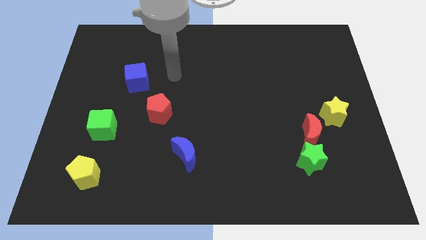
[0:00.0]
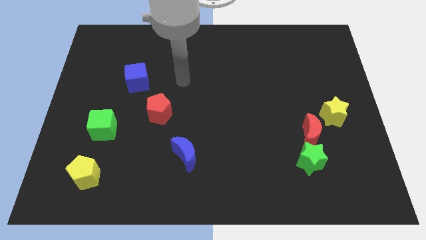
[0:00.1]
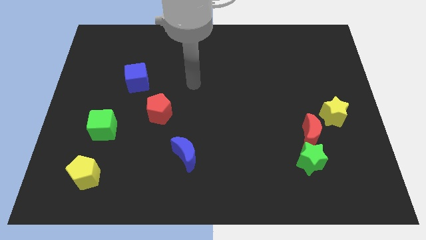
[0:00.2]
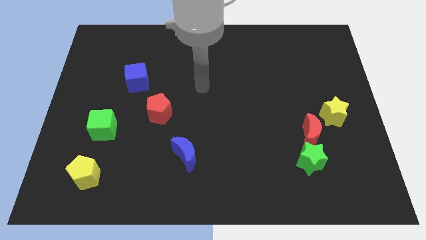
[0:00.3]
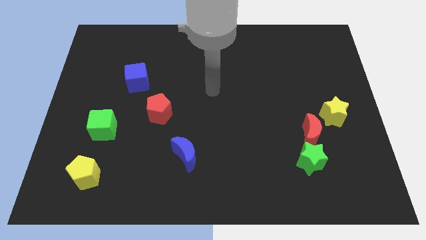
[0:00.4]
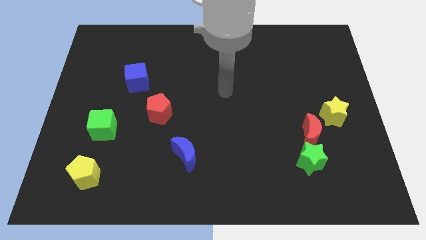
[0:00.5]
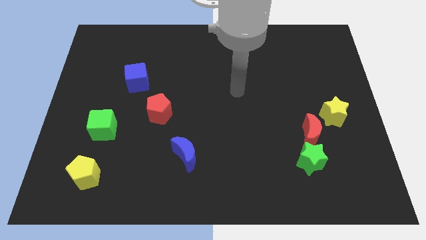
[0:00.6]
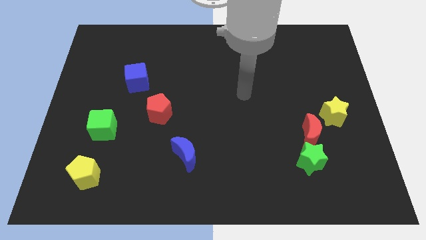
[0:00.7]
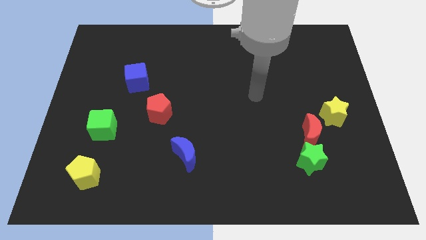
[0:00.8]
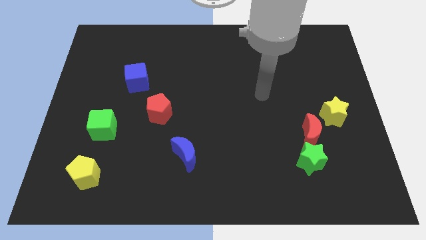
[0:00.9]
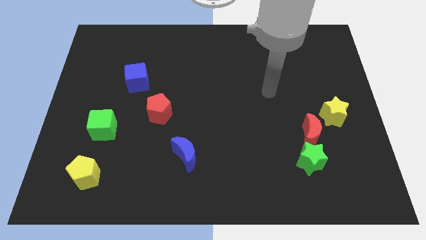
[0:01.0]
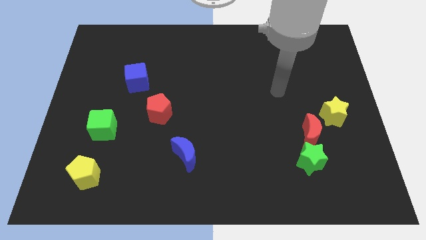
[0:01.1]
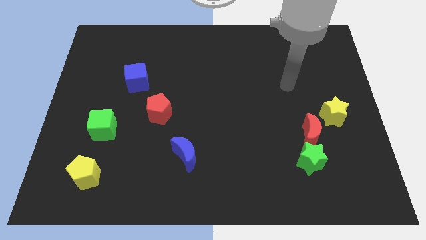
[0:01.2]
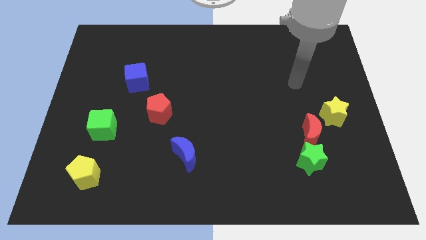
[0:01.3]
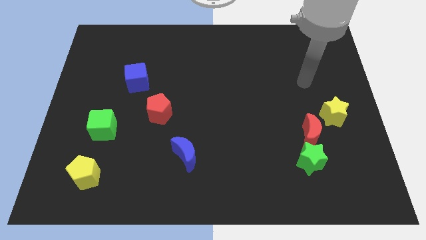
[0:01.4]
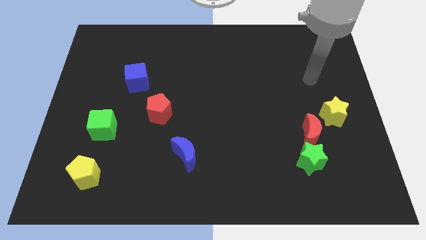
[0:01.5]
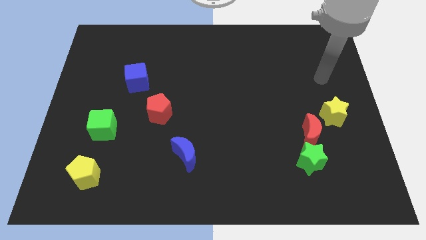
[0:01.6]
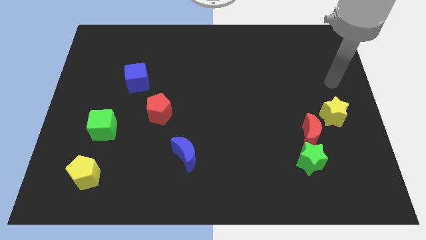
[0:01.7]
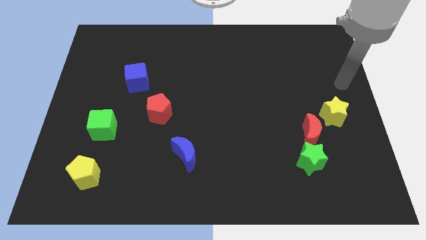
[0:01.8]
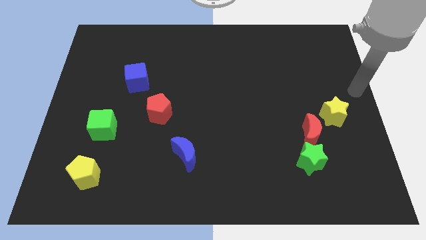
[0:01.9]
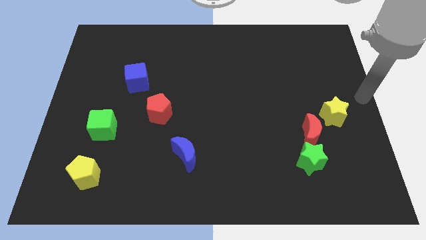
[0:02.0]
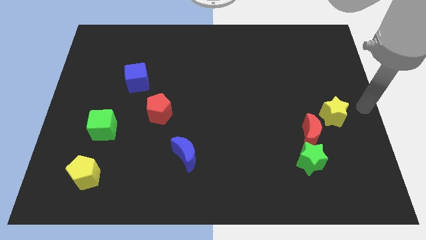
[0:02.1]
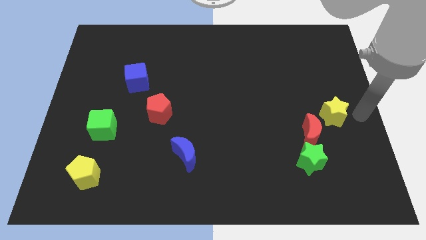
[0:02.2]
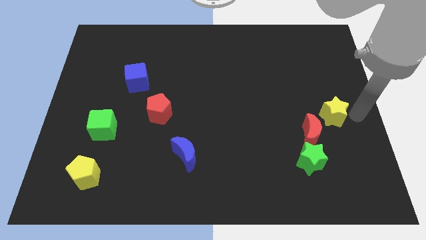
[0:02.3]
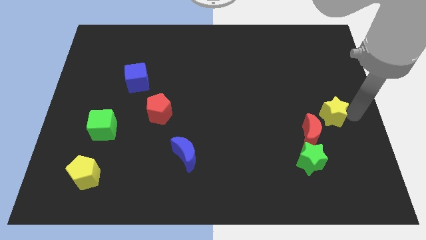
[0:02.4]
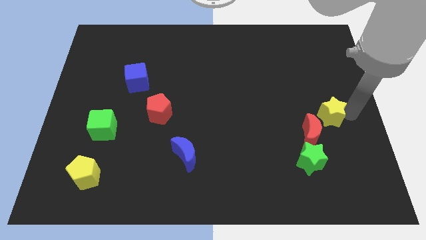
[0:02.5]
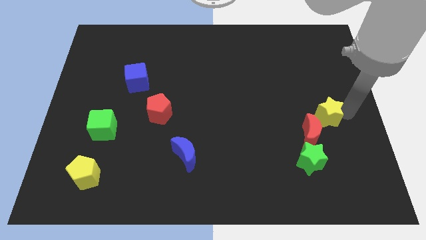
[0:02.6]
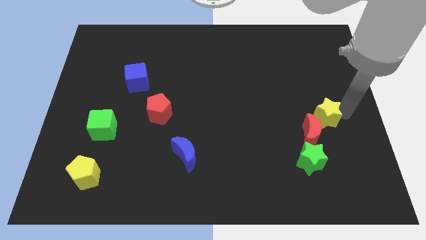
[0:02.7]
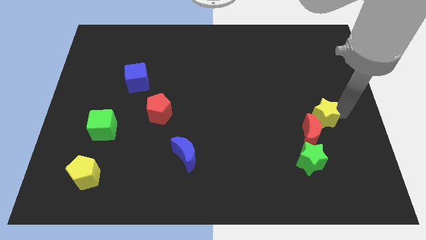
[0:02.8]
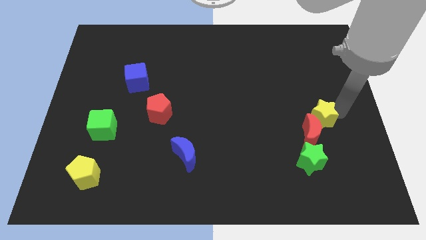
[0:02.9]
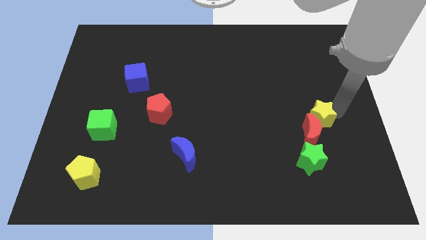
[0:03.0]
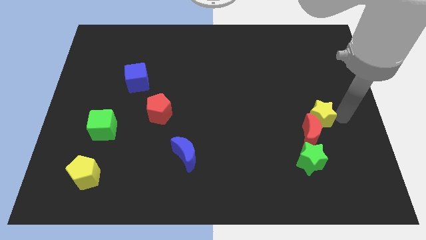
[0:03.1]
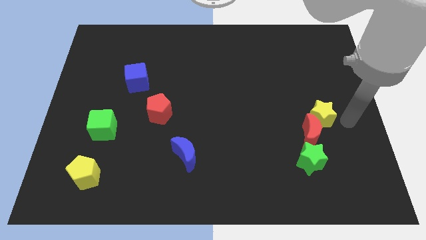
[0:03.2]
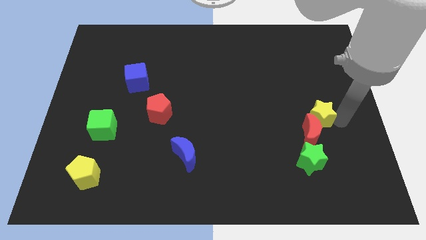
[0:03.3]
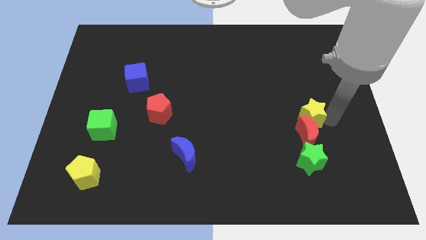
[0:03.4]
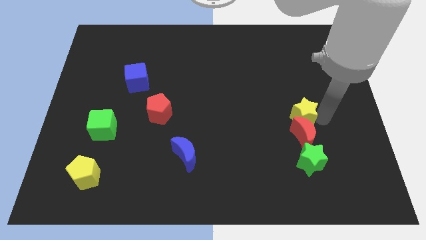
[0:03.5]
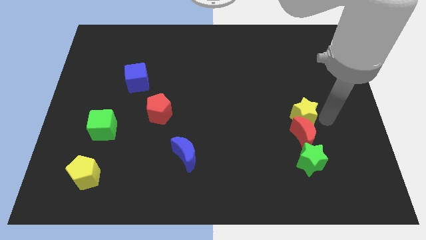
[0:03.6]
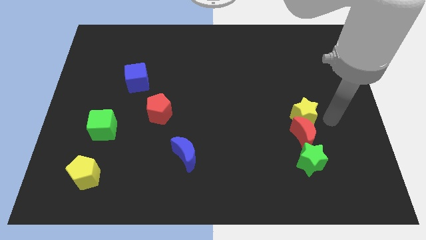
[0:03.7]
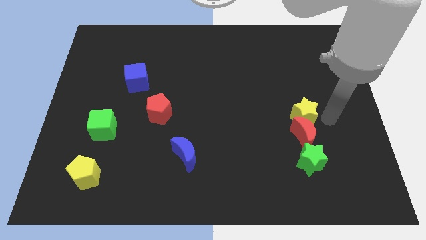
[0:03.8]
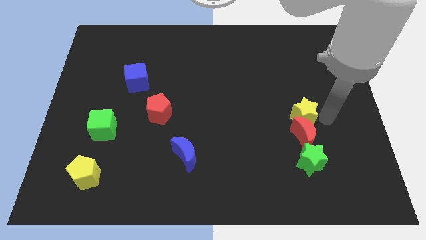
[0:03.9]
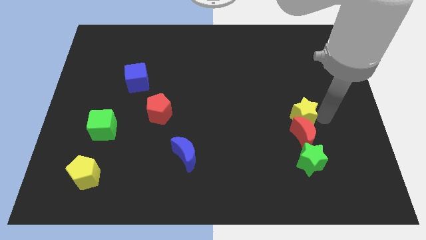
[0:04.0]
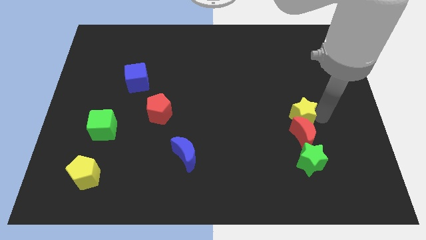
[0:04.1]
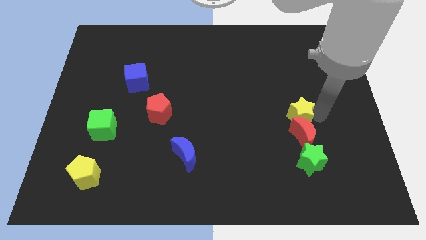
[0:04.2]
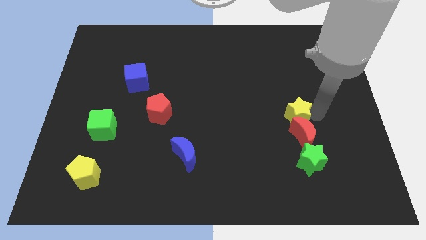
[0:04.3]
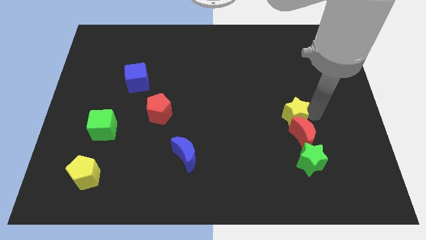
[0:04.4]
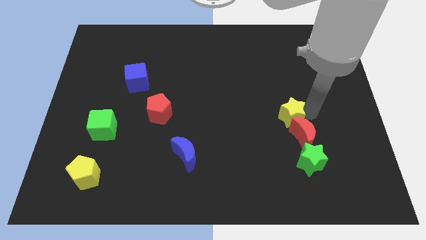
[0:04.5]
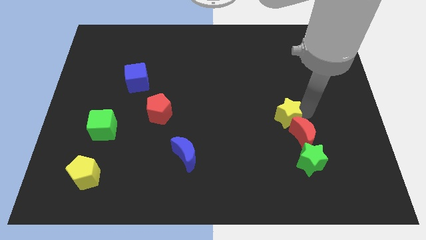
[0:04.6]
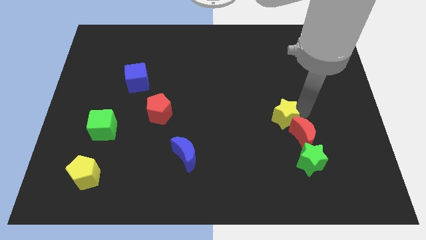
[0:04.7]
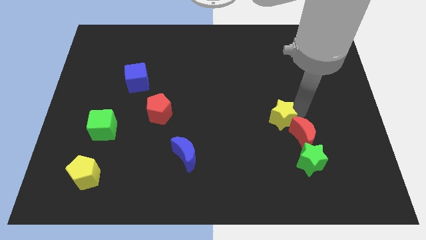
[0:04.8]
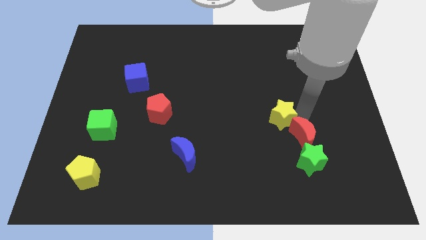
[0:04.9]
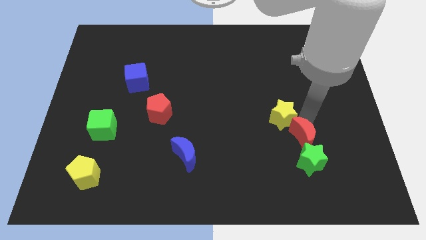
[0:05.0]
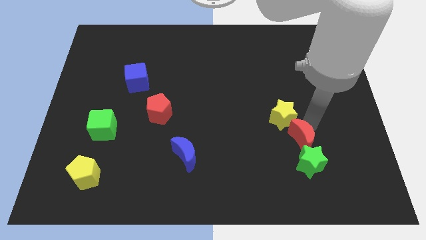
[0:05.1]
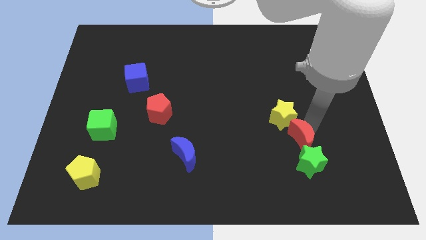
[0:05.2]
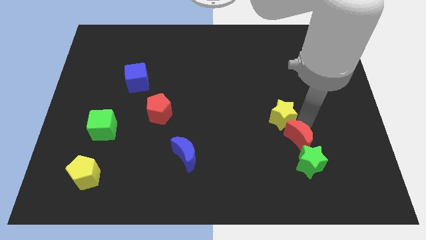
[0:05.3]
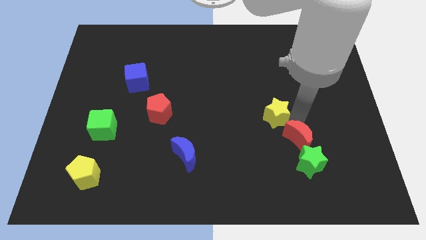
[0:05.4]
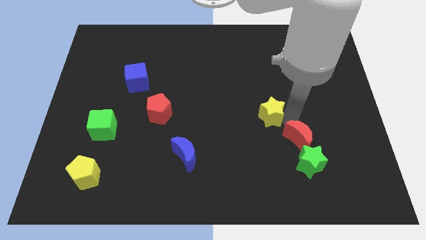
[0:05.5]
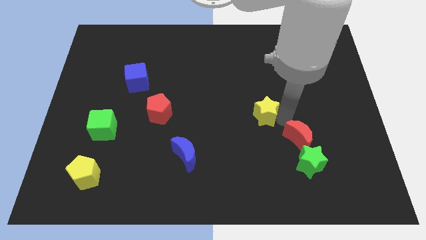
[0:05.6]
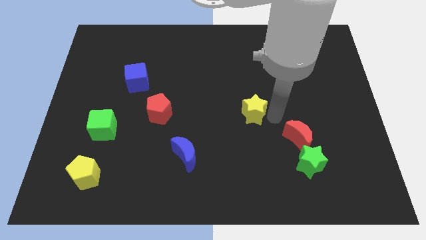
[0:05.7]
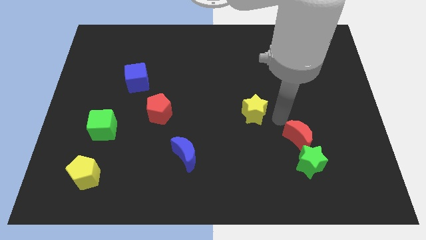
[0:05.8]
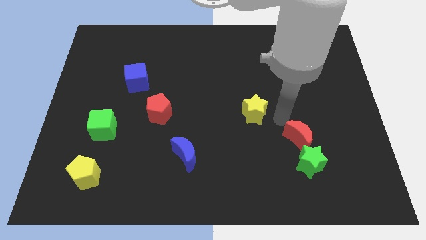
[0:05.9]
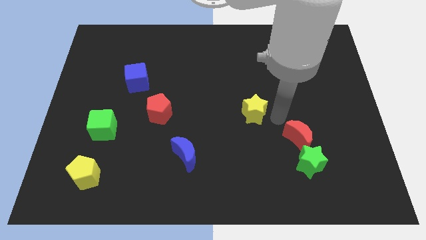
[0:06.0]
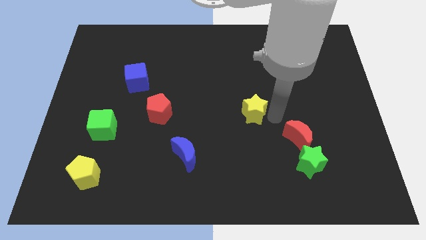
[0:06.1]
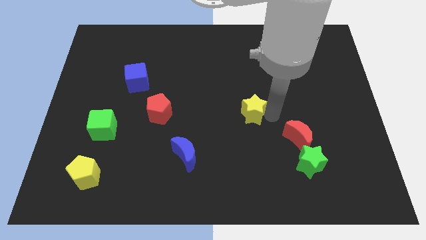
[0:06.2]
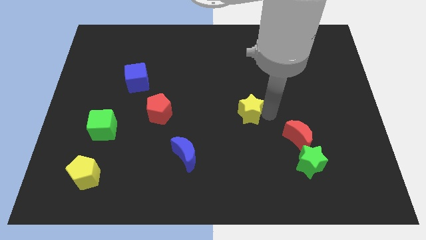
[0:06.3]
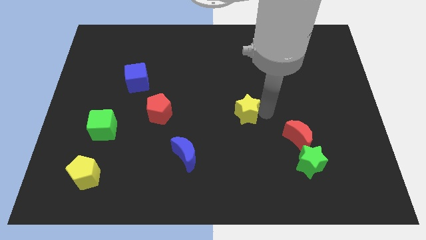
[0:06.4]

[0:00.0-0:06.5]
push the yellow star to the left

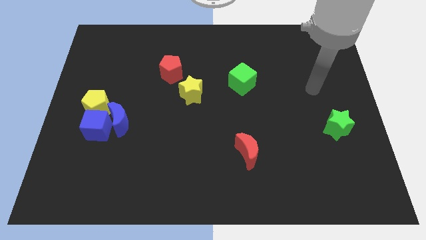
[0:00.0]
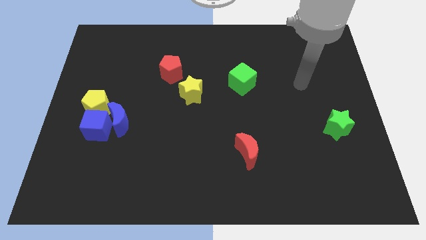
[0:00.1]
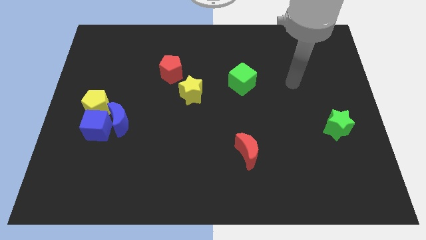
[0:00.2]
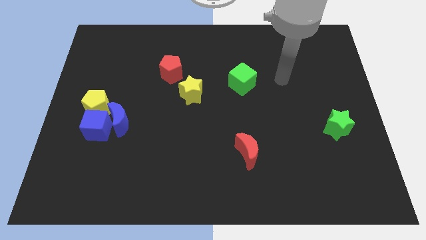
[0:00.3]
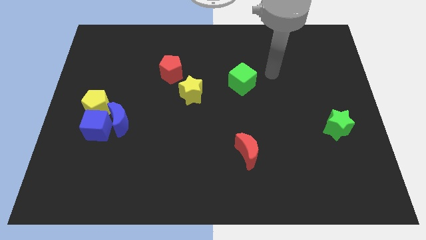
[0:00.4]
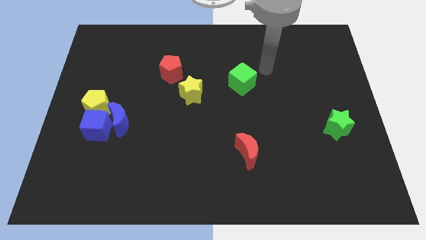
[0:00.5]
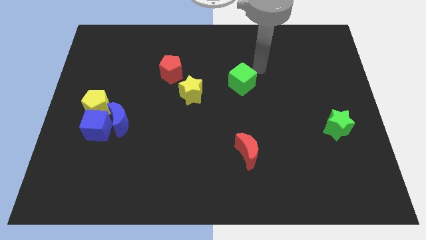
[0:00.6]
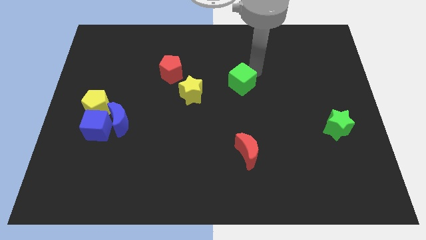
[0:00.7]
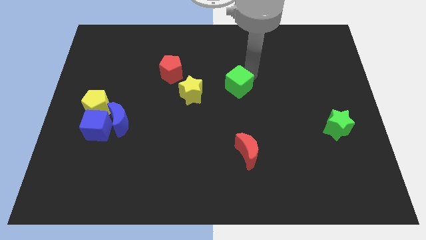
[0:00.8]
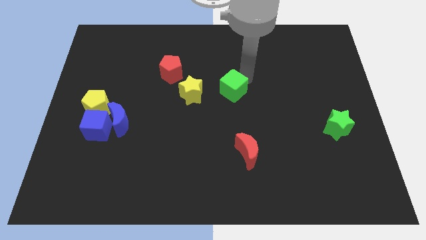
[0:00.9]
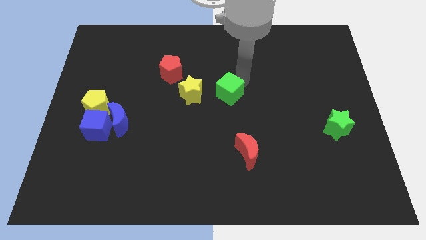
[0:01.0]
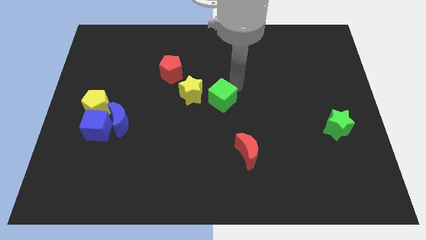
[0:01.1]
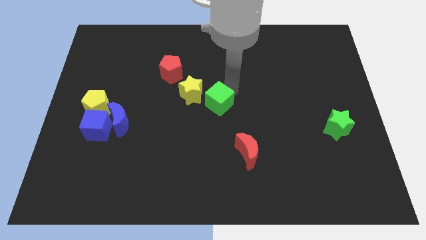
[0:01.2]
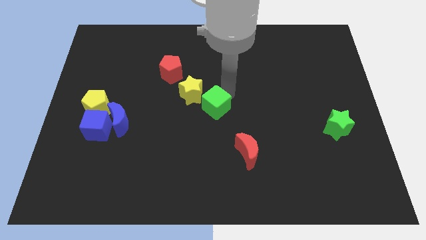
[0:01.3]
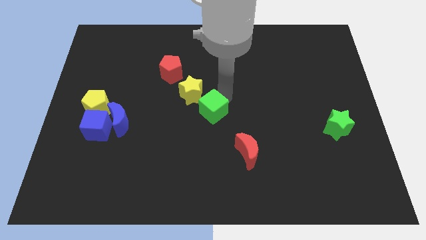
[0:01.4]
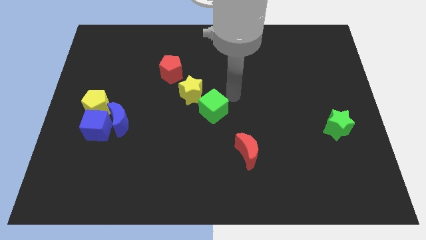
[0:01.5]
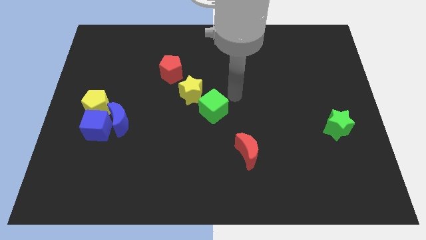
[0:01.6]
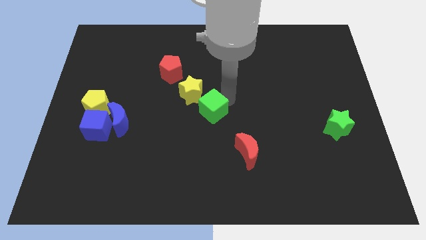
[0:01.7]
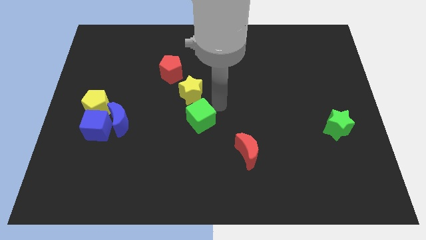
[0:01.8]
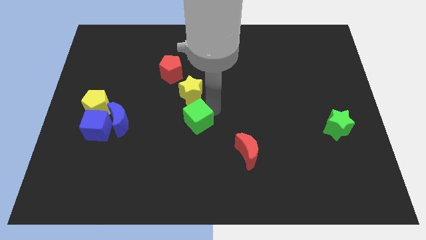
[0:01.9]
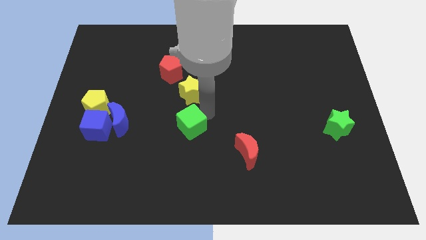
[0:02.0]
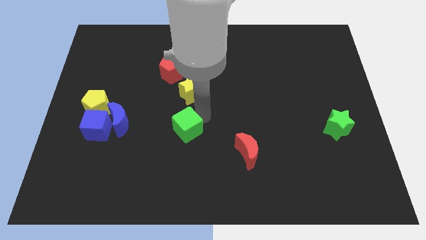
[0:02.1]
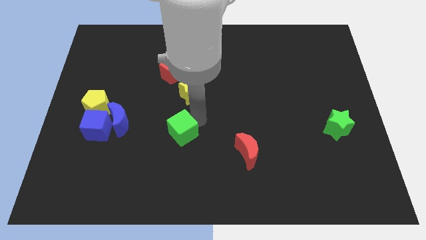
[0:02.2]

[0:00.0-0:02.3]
slide the green cube diagonally down and left
